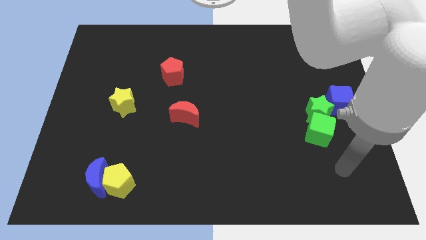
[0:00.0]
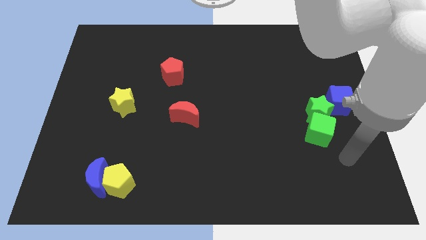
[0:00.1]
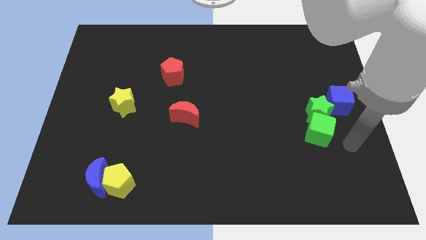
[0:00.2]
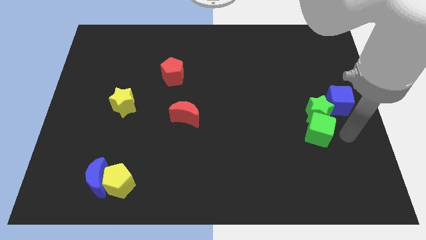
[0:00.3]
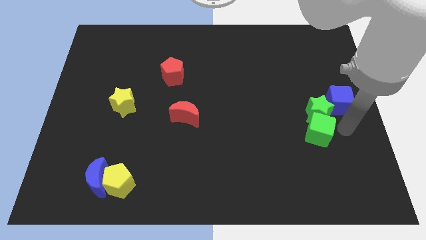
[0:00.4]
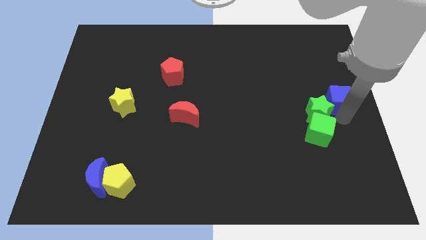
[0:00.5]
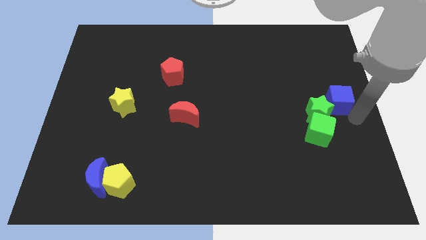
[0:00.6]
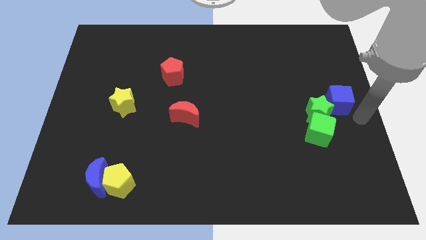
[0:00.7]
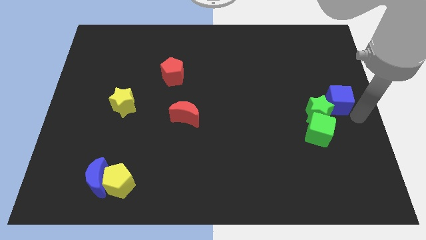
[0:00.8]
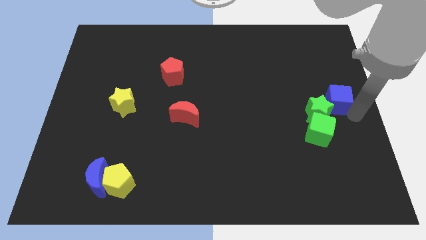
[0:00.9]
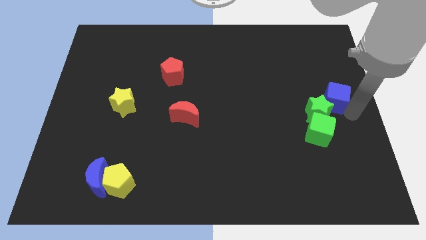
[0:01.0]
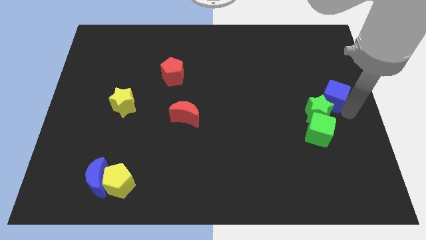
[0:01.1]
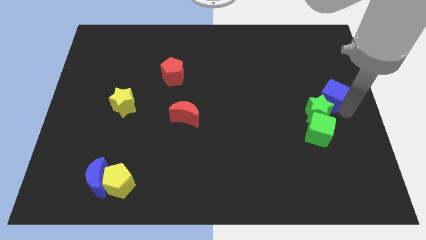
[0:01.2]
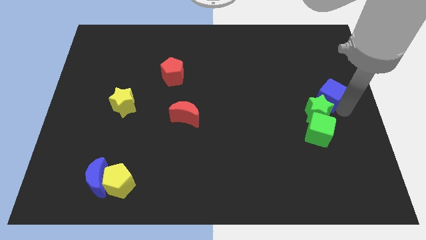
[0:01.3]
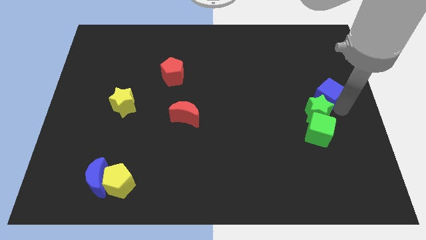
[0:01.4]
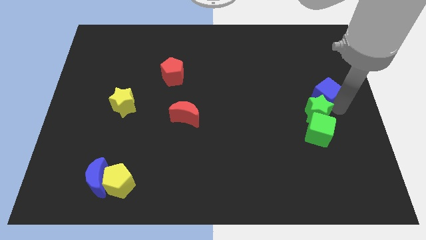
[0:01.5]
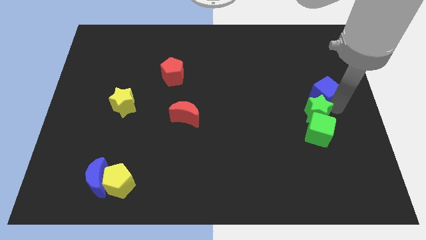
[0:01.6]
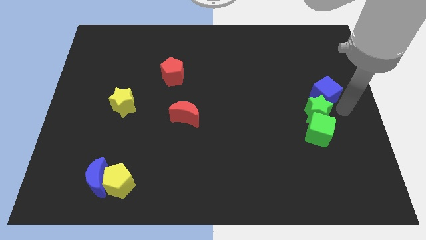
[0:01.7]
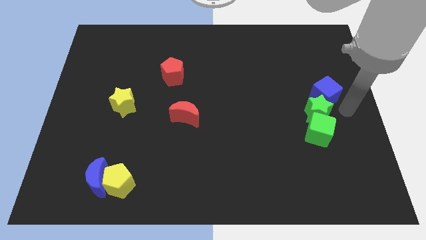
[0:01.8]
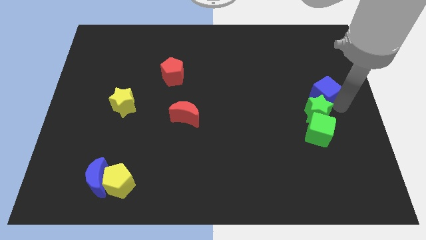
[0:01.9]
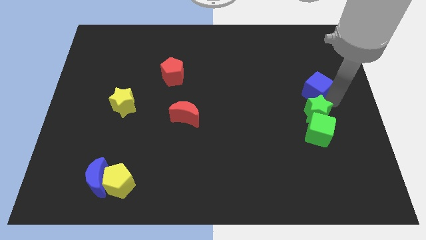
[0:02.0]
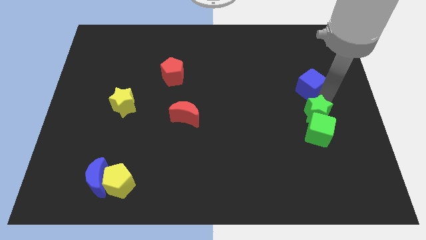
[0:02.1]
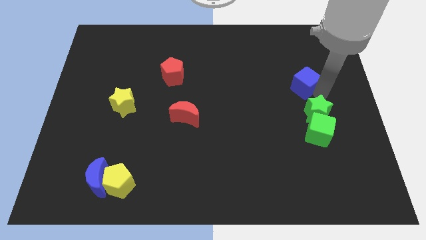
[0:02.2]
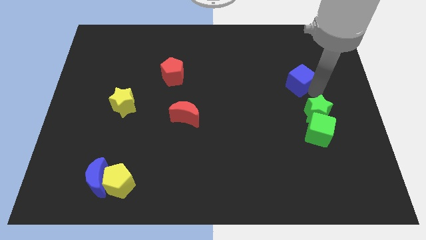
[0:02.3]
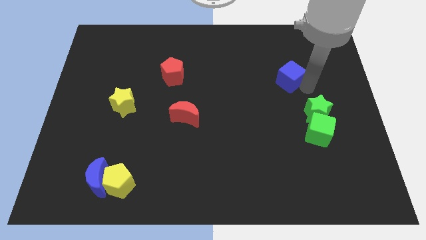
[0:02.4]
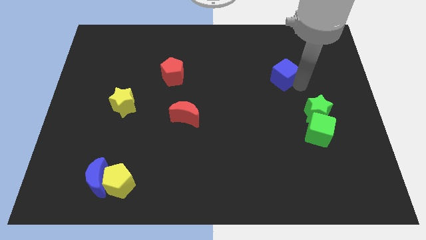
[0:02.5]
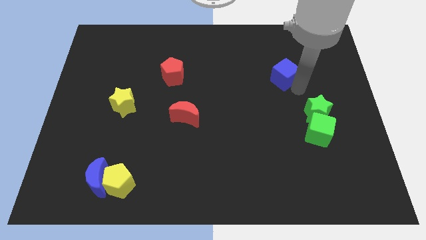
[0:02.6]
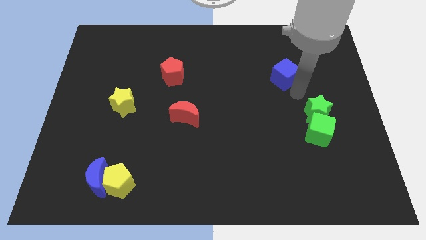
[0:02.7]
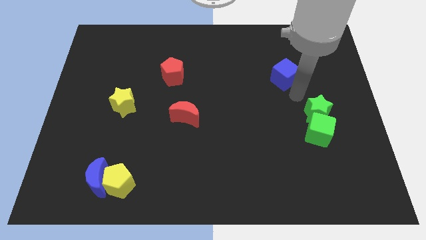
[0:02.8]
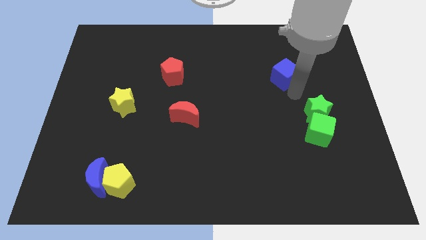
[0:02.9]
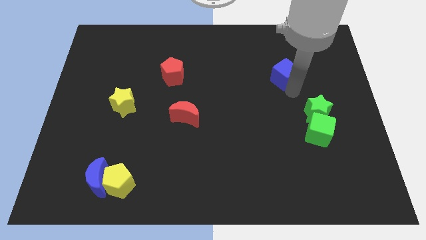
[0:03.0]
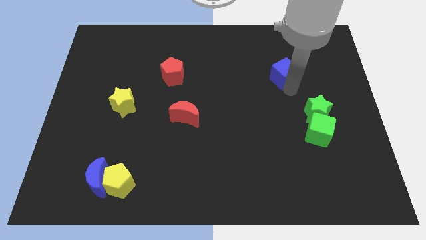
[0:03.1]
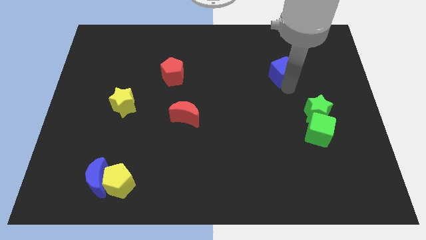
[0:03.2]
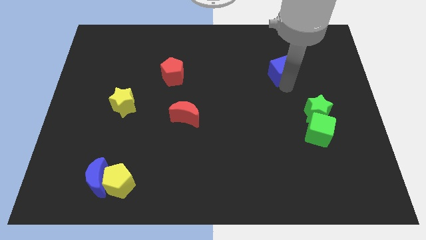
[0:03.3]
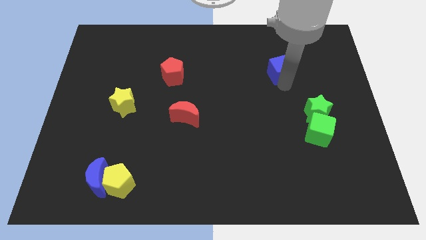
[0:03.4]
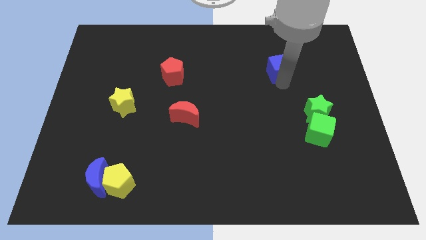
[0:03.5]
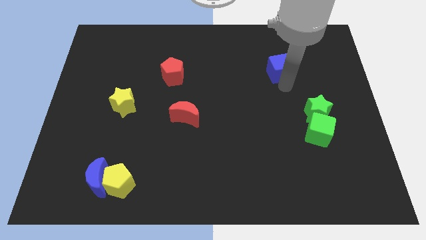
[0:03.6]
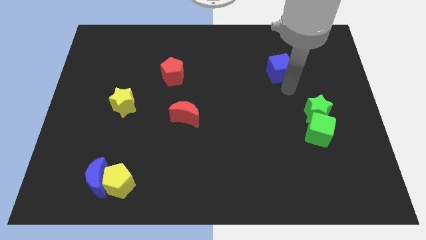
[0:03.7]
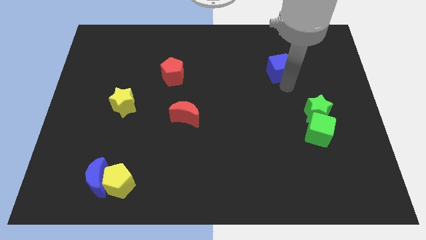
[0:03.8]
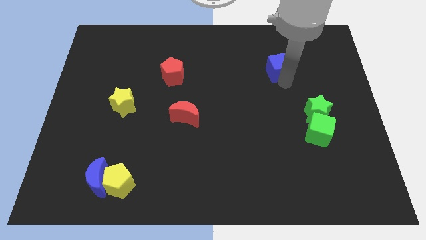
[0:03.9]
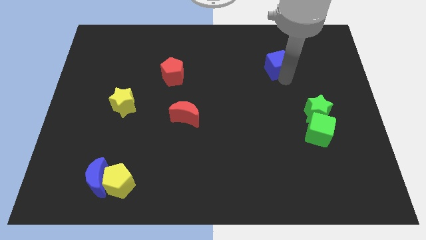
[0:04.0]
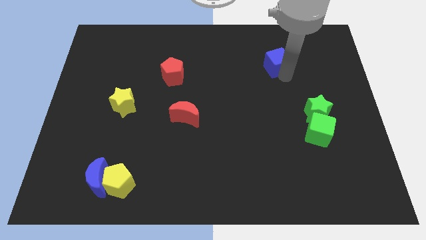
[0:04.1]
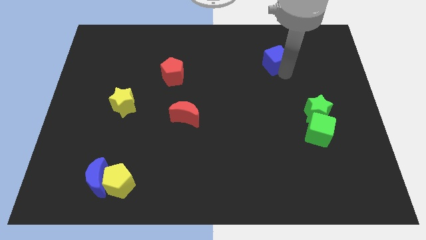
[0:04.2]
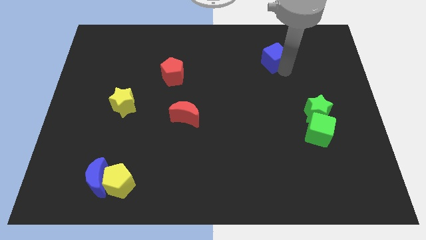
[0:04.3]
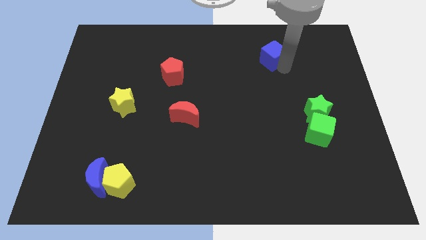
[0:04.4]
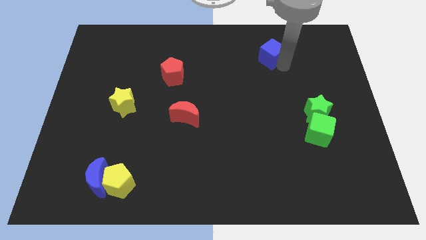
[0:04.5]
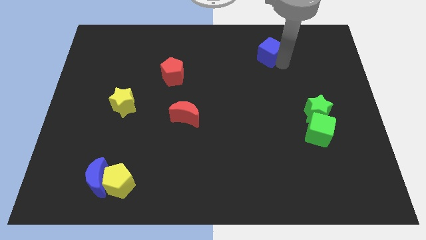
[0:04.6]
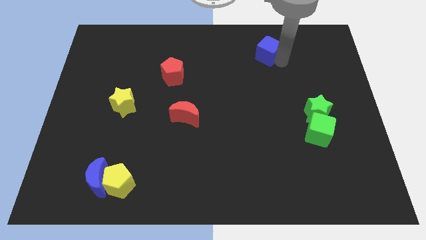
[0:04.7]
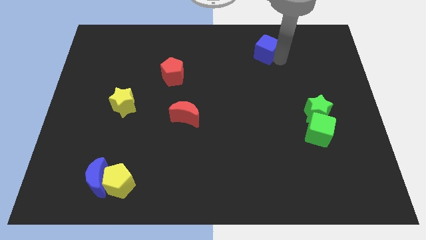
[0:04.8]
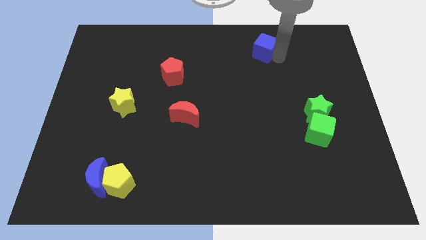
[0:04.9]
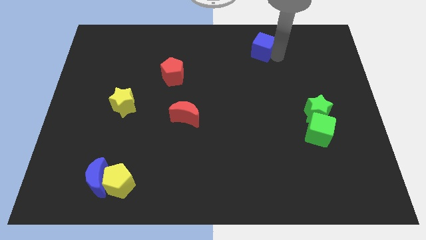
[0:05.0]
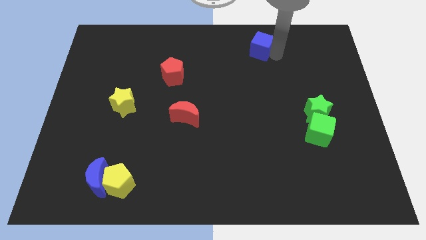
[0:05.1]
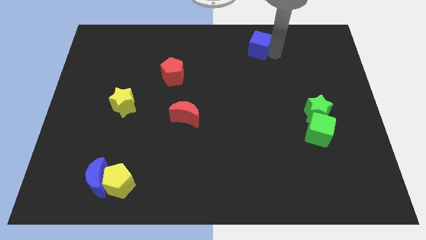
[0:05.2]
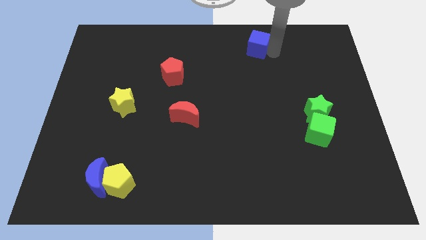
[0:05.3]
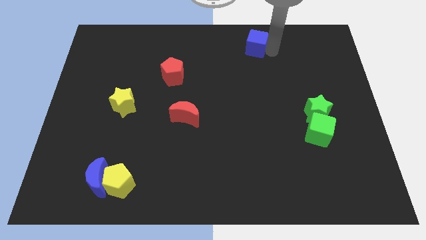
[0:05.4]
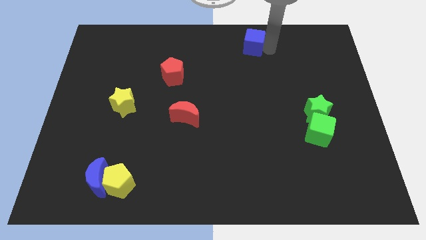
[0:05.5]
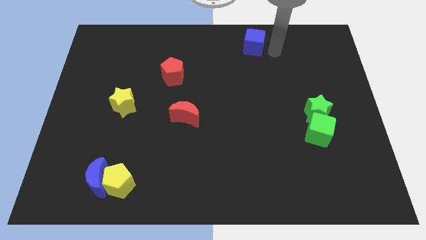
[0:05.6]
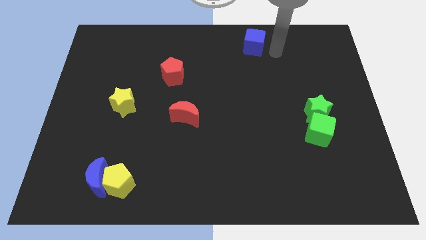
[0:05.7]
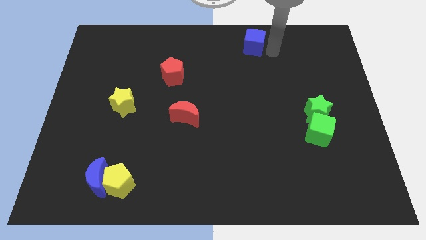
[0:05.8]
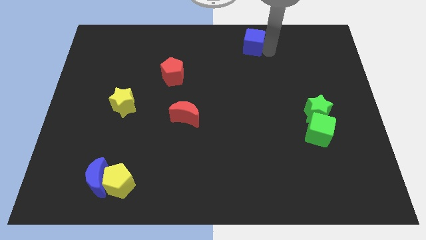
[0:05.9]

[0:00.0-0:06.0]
move the blue cube to the top

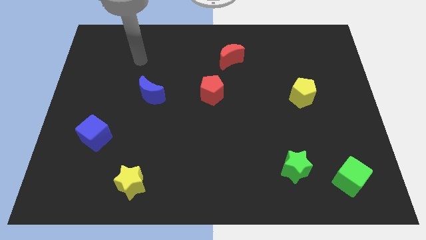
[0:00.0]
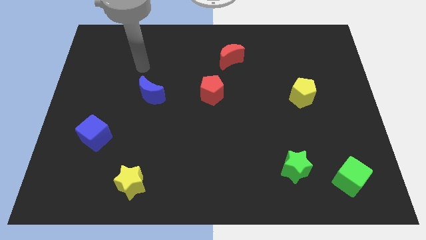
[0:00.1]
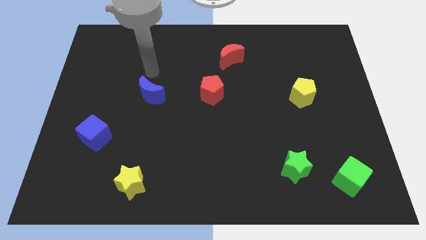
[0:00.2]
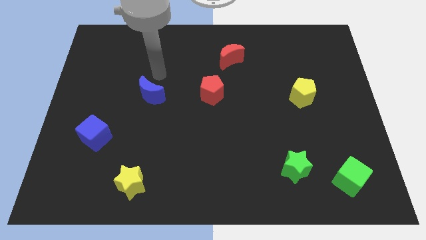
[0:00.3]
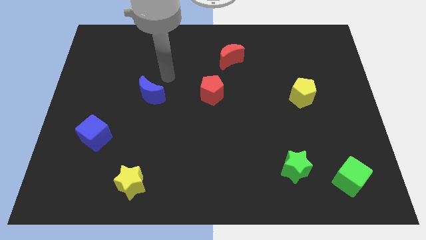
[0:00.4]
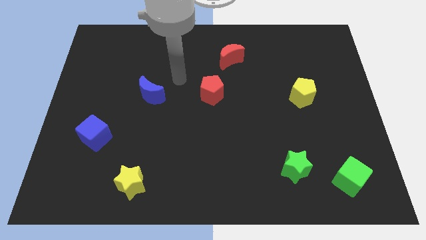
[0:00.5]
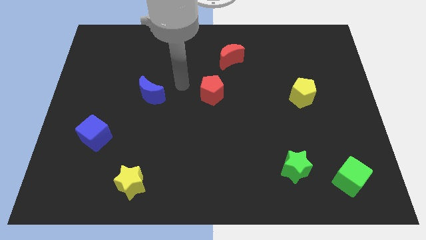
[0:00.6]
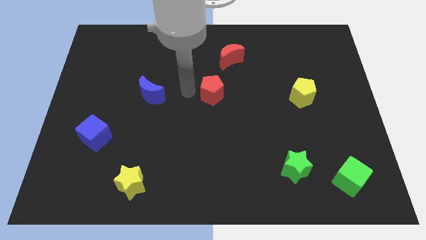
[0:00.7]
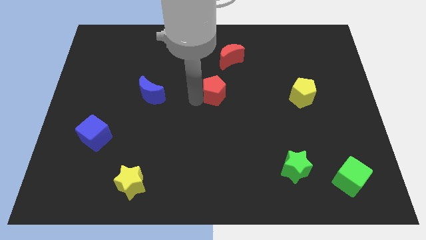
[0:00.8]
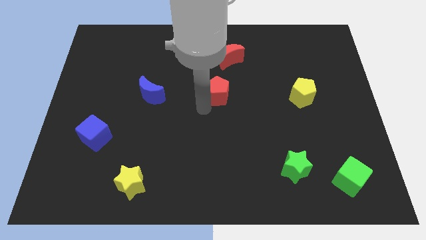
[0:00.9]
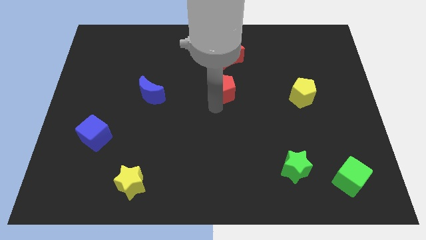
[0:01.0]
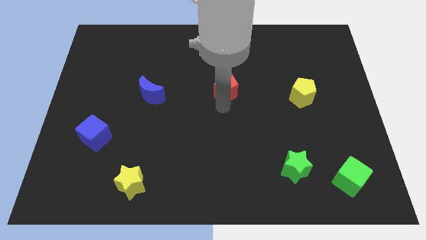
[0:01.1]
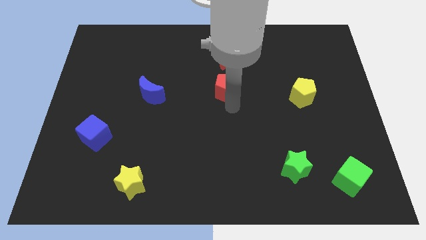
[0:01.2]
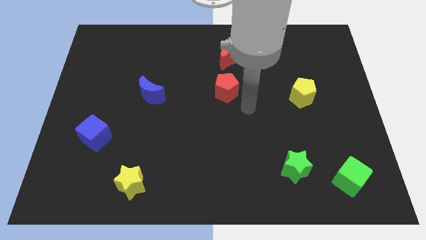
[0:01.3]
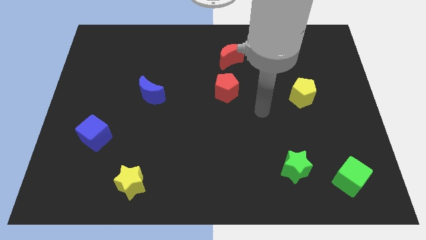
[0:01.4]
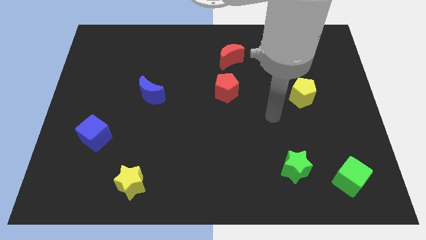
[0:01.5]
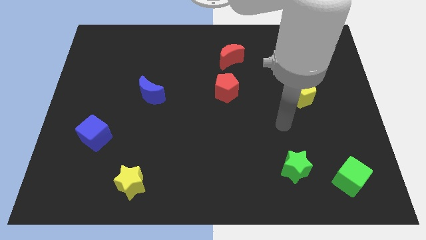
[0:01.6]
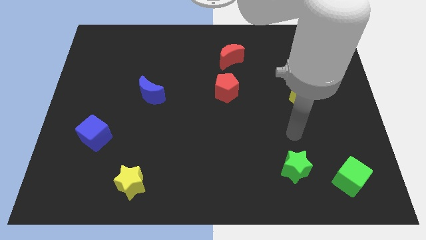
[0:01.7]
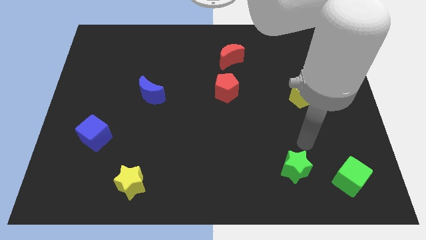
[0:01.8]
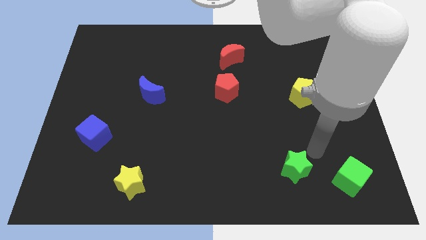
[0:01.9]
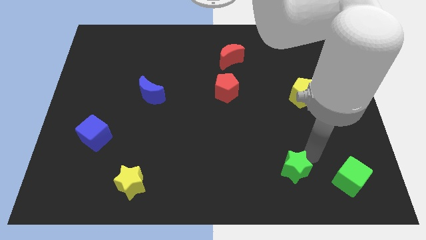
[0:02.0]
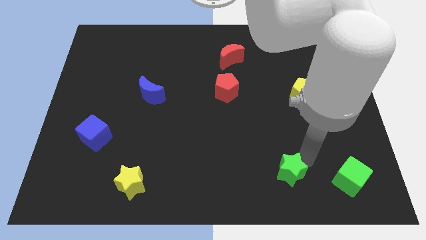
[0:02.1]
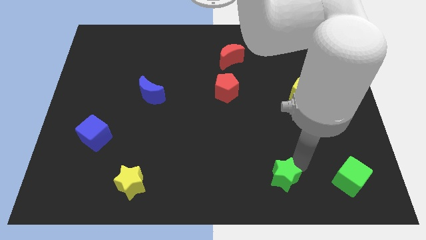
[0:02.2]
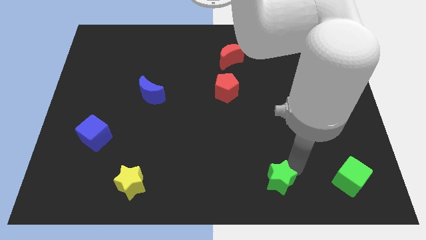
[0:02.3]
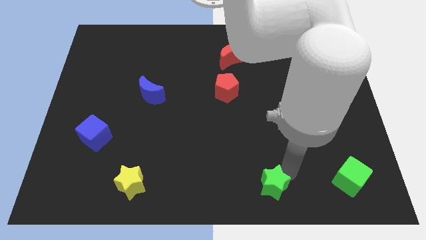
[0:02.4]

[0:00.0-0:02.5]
push the green star to the bottom
